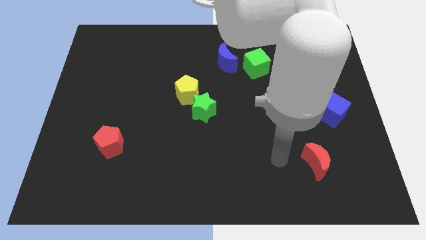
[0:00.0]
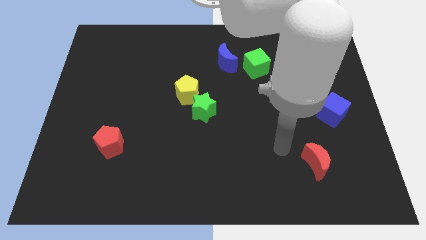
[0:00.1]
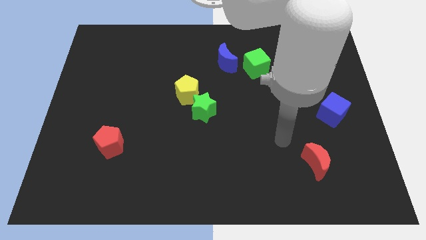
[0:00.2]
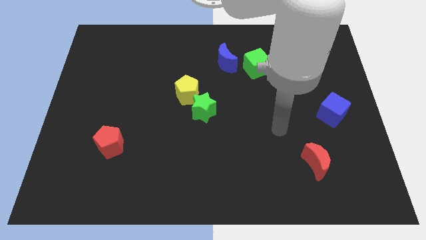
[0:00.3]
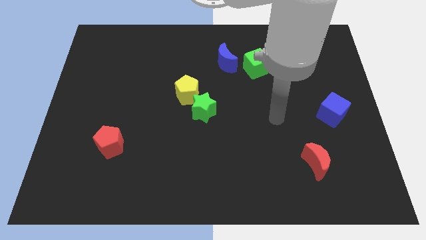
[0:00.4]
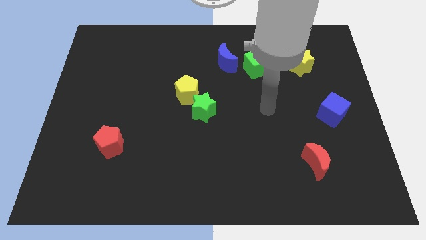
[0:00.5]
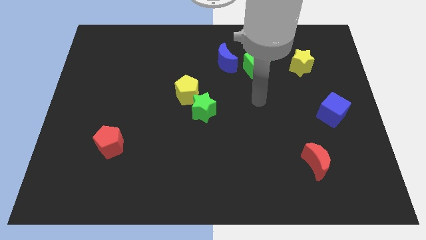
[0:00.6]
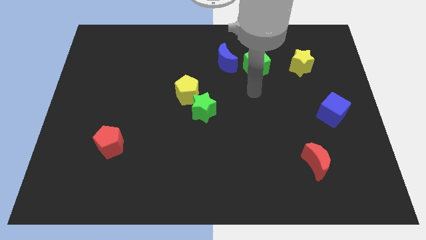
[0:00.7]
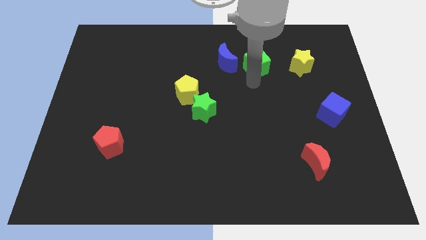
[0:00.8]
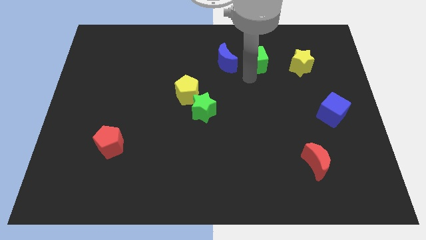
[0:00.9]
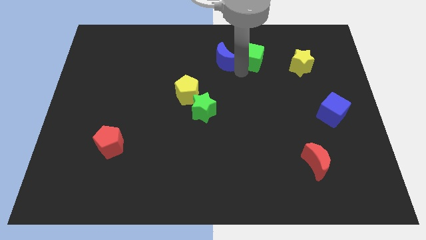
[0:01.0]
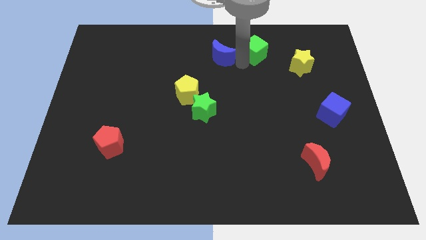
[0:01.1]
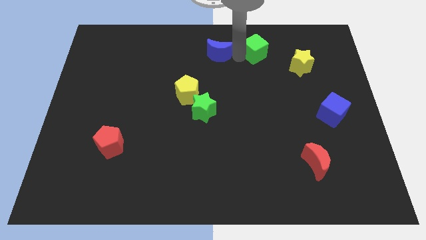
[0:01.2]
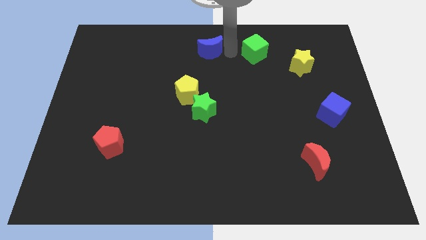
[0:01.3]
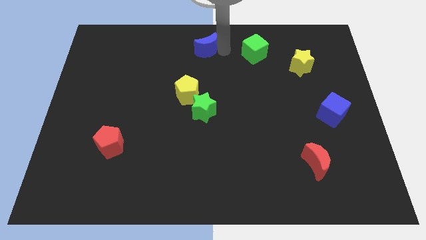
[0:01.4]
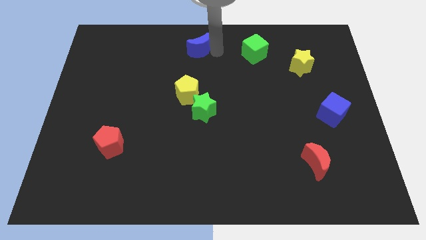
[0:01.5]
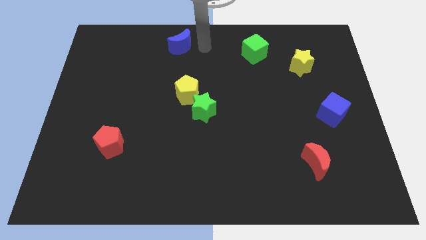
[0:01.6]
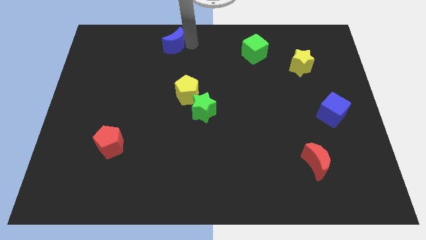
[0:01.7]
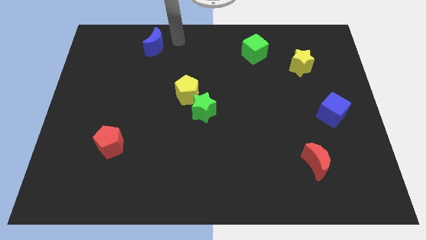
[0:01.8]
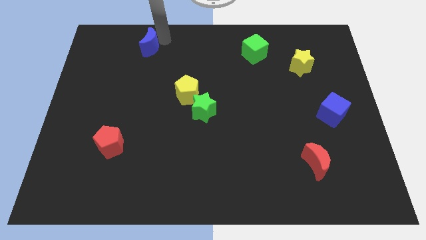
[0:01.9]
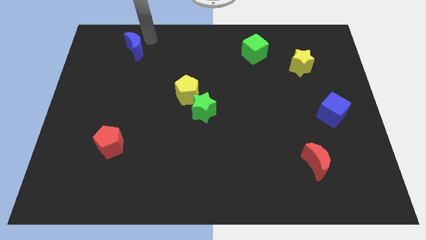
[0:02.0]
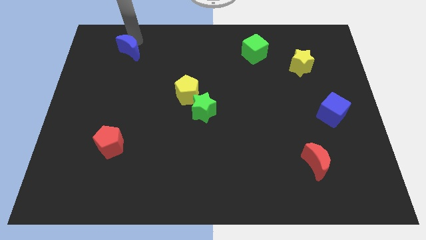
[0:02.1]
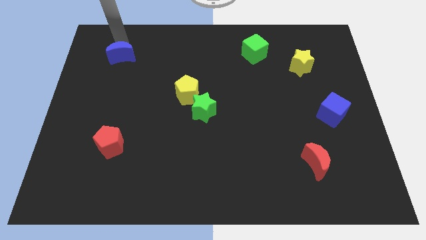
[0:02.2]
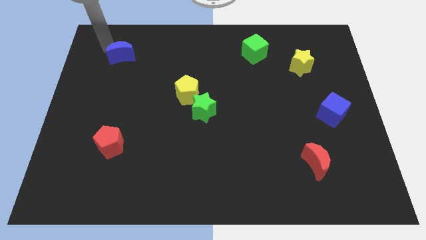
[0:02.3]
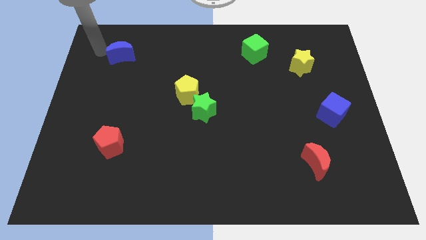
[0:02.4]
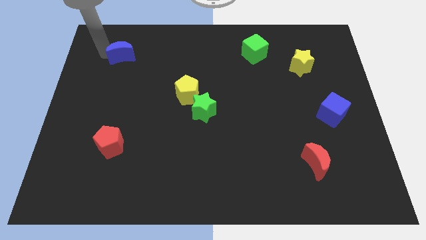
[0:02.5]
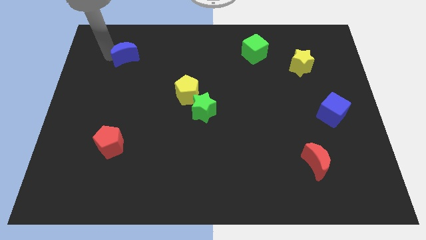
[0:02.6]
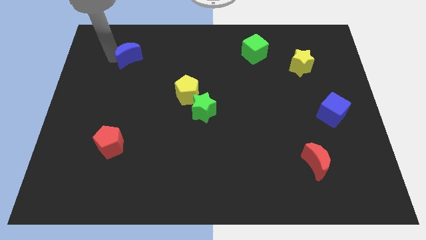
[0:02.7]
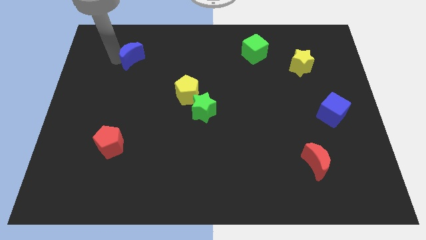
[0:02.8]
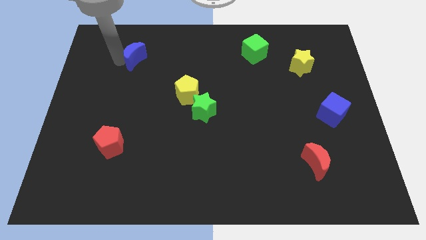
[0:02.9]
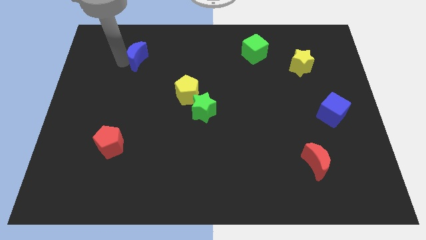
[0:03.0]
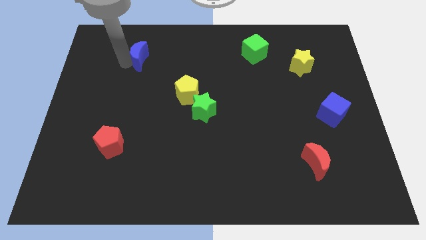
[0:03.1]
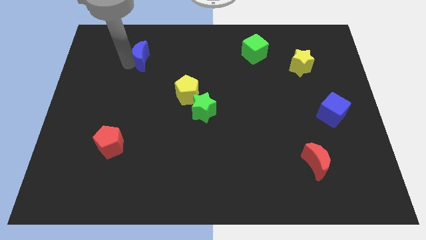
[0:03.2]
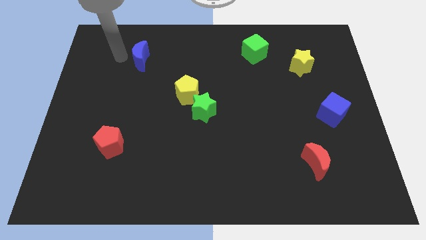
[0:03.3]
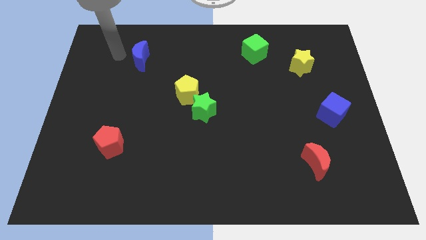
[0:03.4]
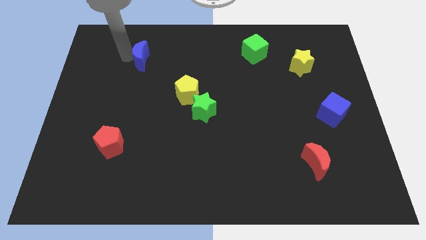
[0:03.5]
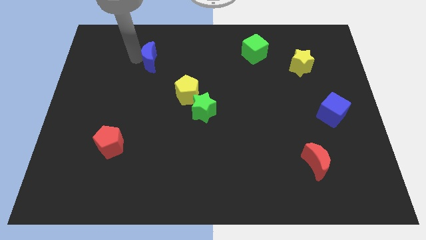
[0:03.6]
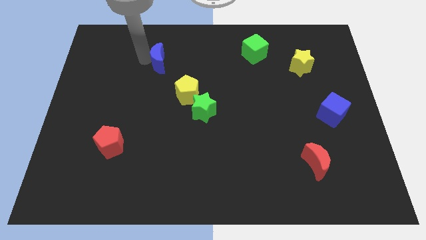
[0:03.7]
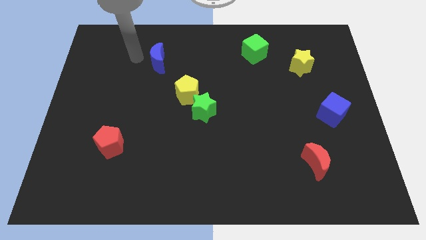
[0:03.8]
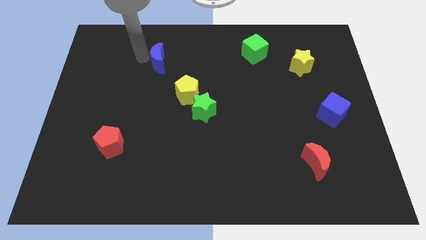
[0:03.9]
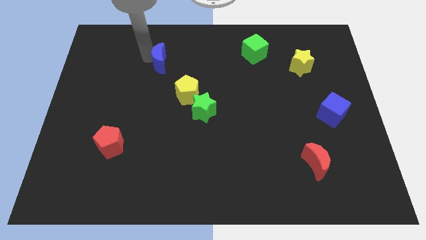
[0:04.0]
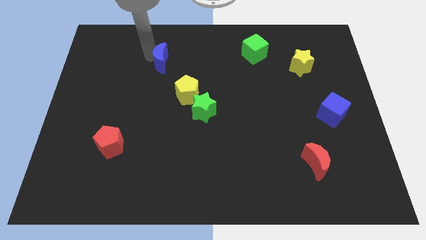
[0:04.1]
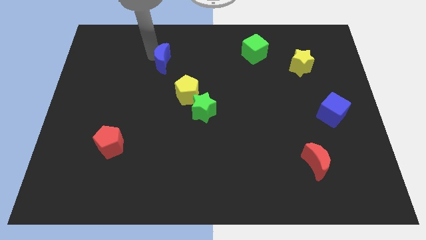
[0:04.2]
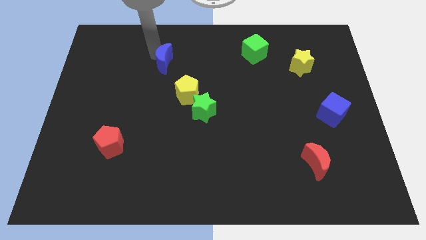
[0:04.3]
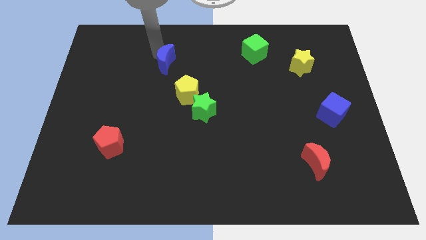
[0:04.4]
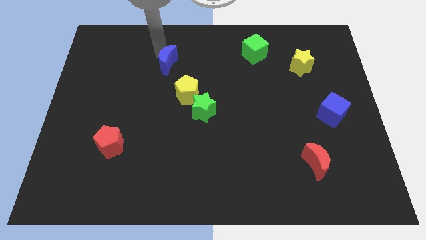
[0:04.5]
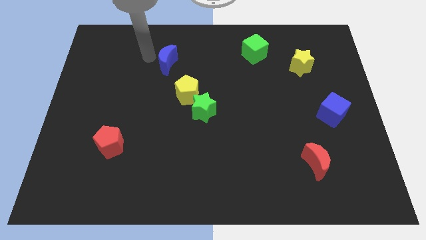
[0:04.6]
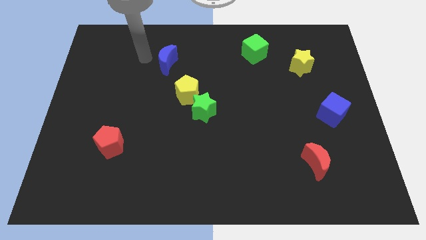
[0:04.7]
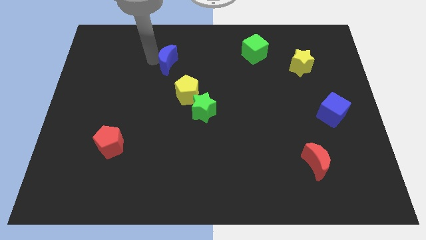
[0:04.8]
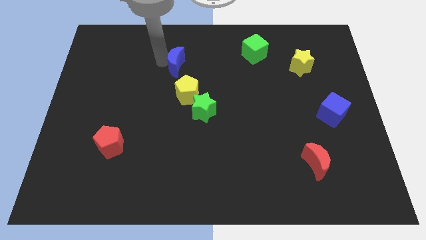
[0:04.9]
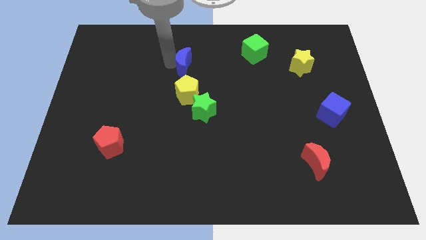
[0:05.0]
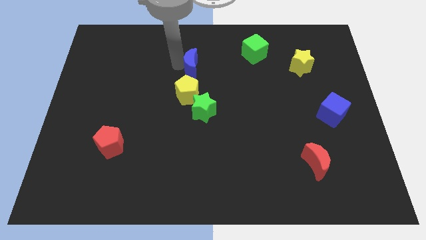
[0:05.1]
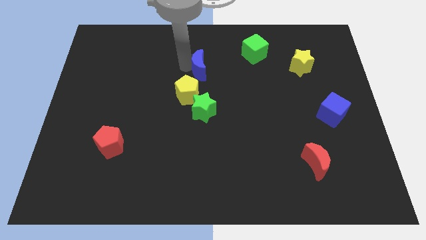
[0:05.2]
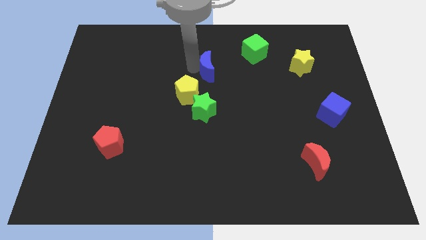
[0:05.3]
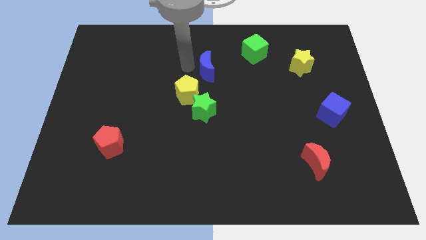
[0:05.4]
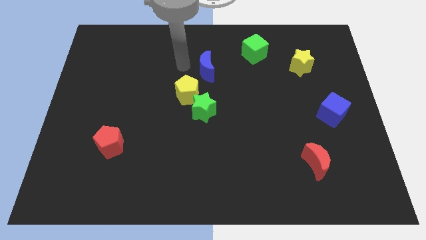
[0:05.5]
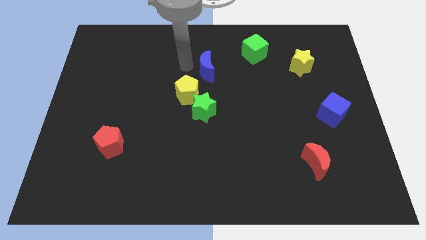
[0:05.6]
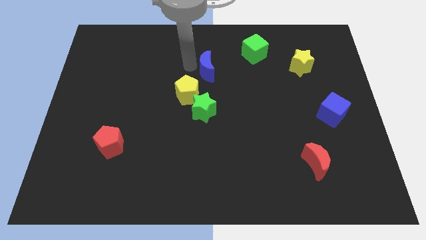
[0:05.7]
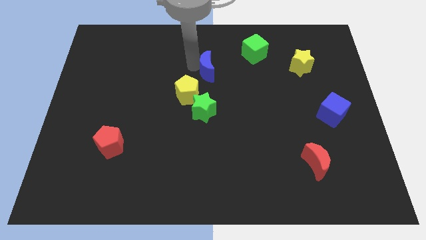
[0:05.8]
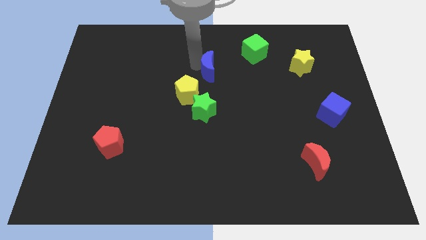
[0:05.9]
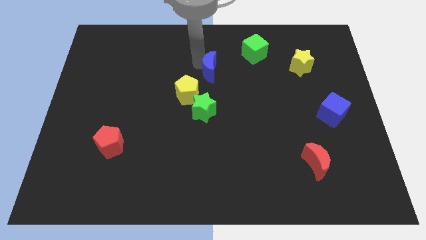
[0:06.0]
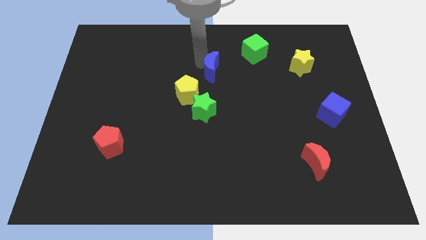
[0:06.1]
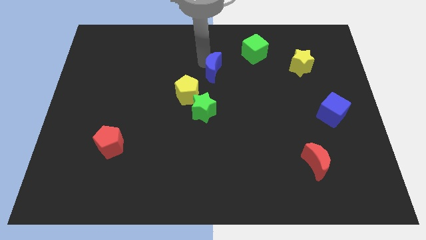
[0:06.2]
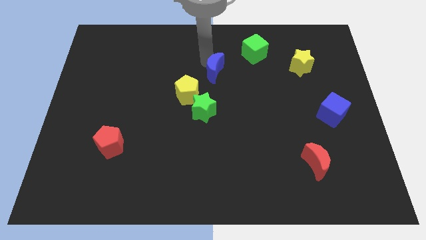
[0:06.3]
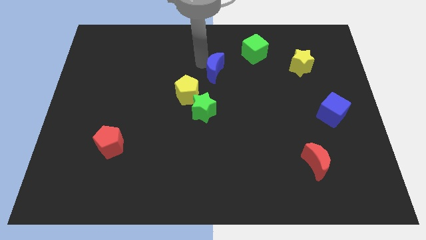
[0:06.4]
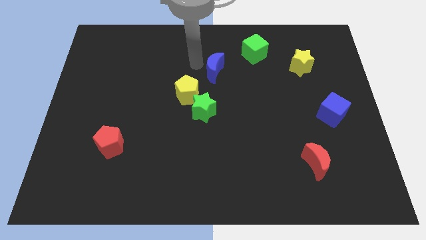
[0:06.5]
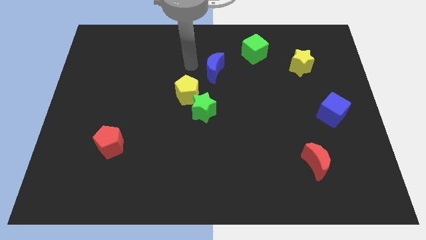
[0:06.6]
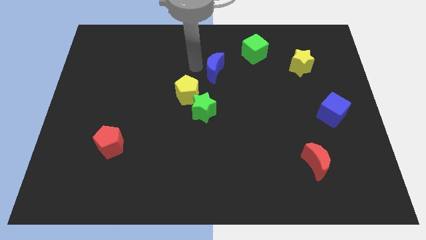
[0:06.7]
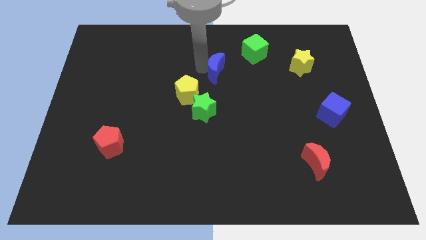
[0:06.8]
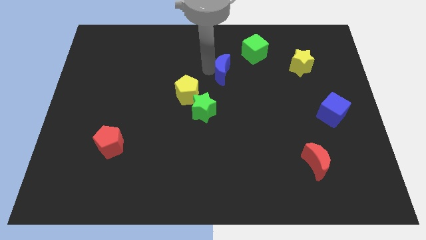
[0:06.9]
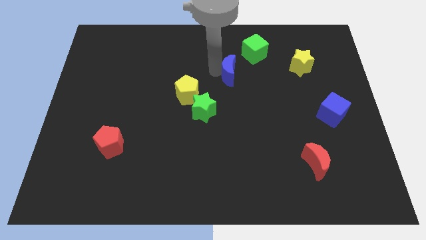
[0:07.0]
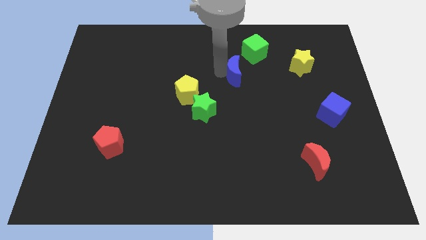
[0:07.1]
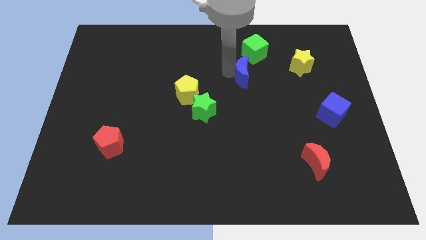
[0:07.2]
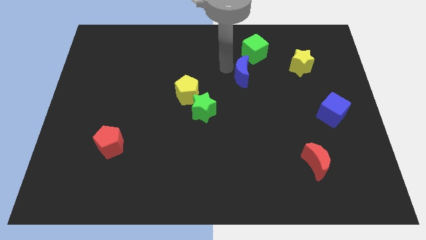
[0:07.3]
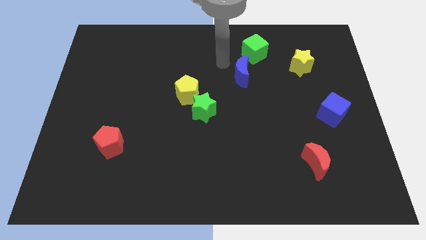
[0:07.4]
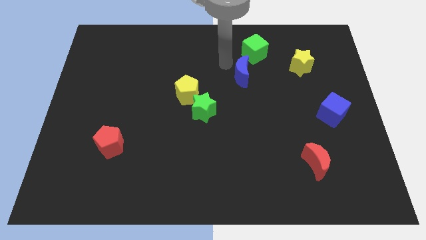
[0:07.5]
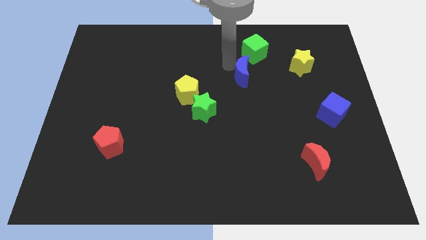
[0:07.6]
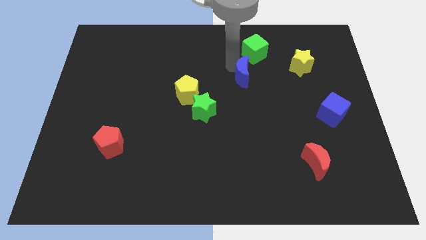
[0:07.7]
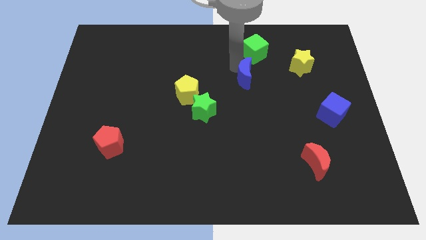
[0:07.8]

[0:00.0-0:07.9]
slightly slide the blue moon downwards and right diagonally

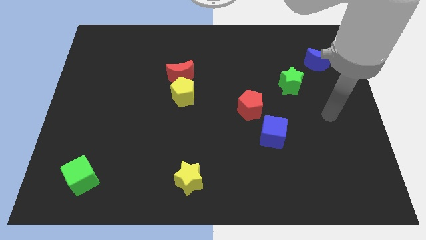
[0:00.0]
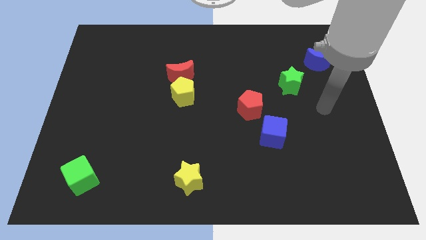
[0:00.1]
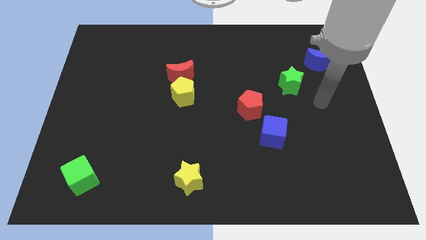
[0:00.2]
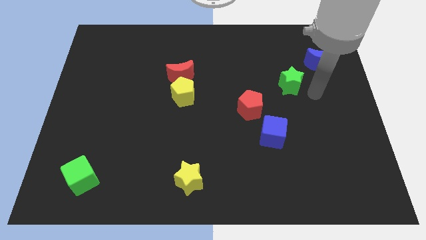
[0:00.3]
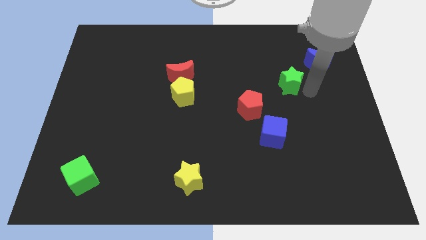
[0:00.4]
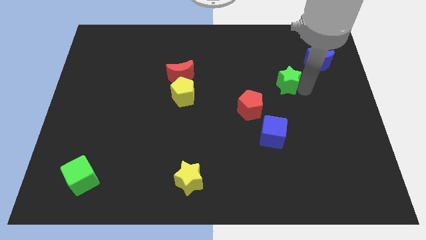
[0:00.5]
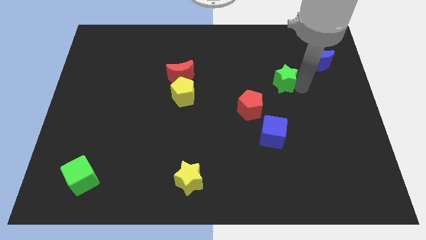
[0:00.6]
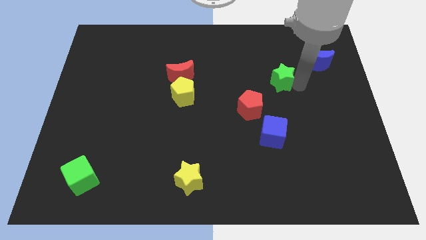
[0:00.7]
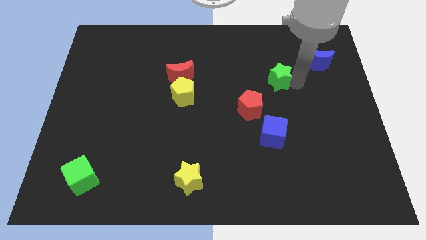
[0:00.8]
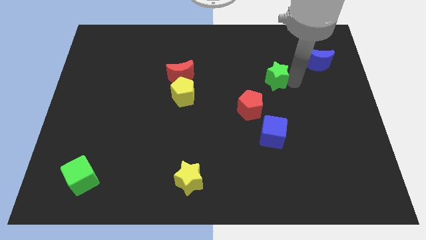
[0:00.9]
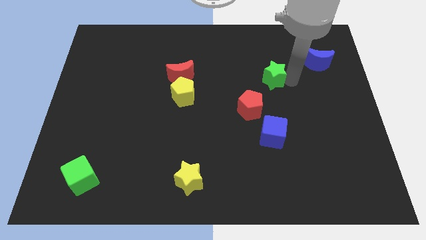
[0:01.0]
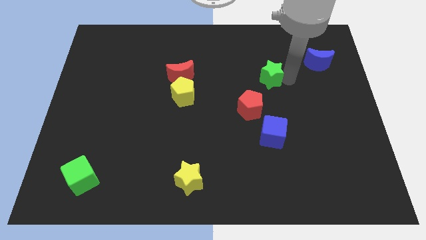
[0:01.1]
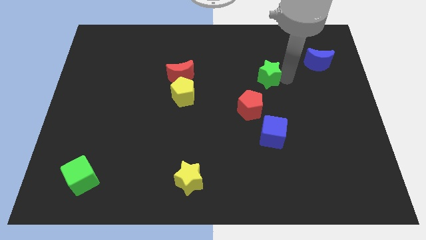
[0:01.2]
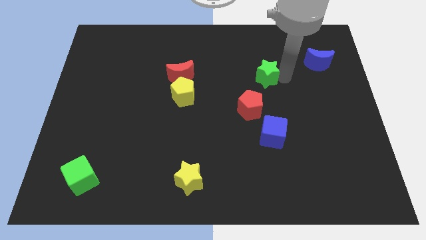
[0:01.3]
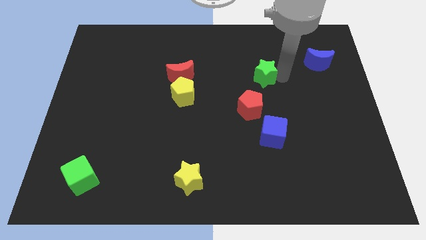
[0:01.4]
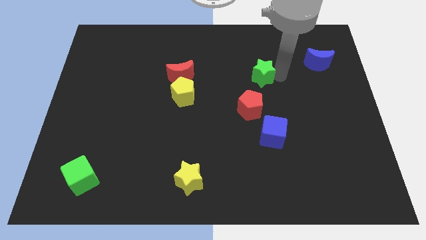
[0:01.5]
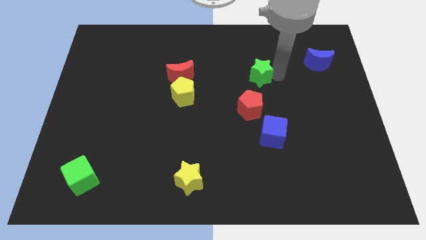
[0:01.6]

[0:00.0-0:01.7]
slightly slide the green star to the left
